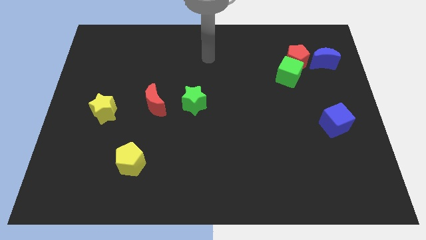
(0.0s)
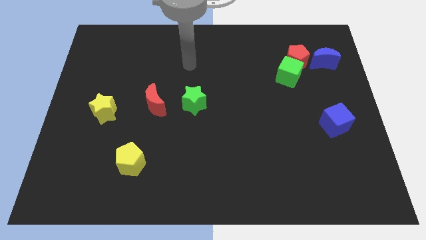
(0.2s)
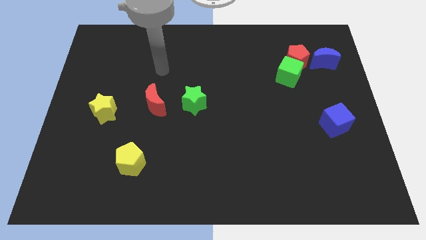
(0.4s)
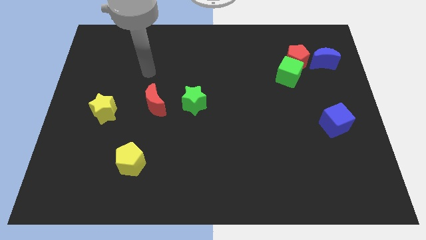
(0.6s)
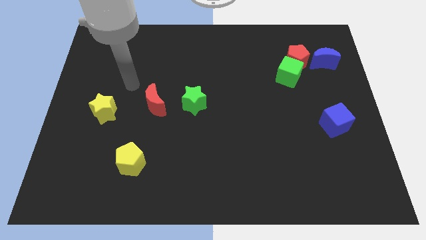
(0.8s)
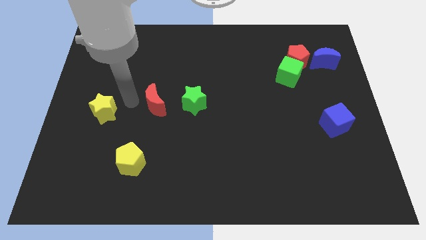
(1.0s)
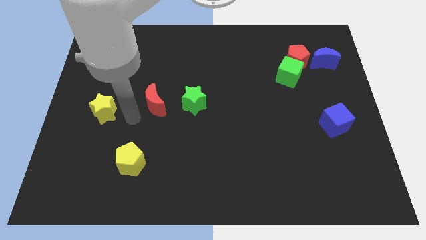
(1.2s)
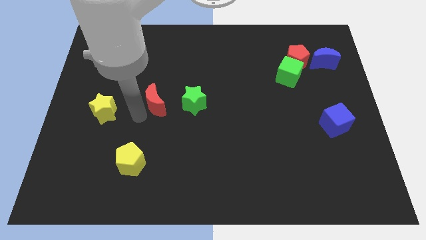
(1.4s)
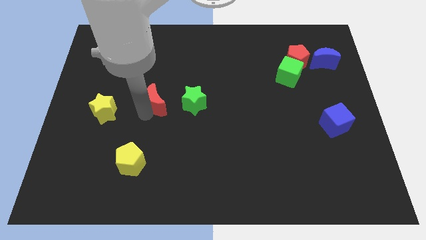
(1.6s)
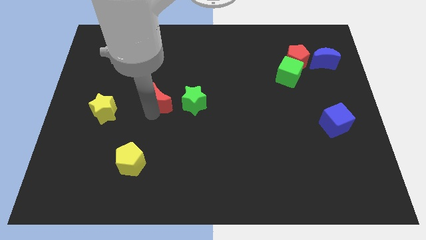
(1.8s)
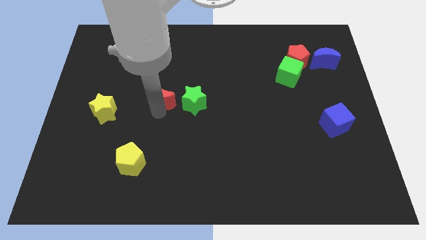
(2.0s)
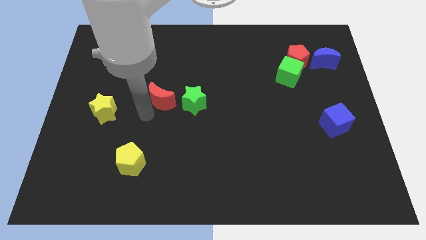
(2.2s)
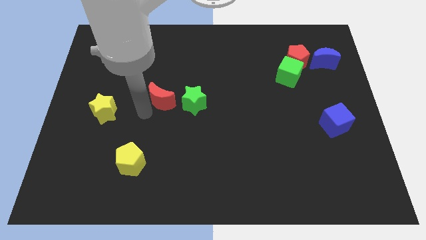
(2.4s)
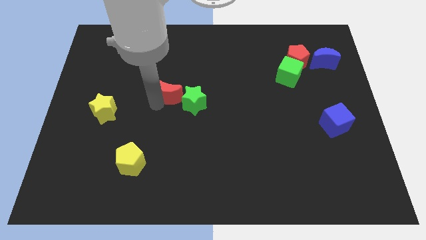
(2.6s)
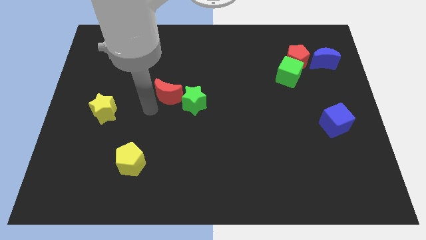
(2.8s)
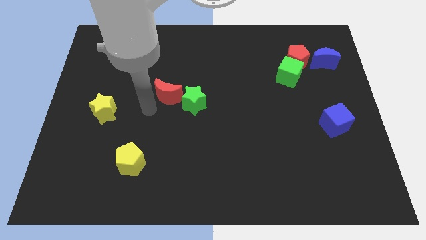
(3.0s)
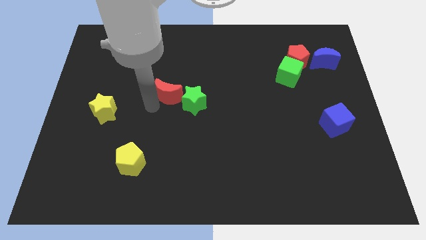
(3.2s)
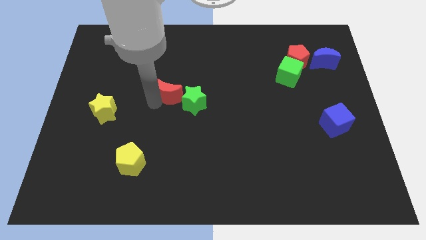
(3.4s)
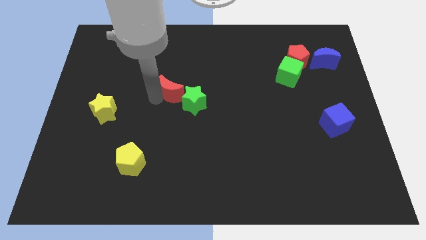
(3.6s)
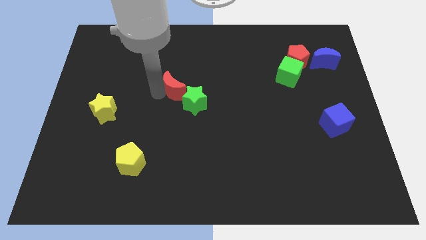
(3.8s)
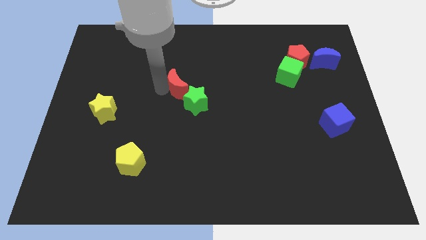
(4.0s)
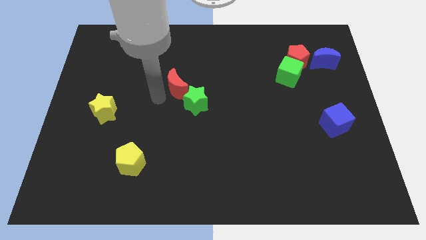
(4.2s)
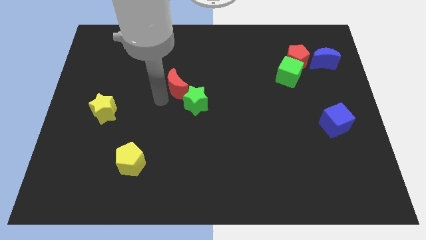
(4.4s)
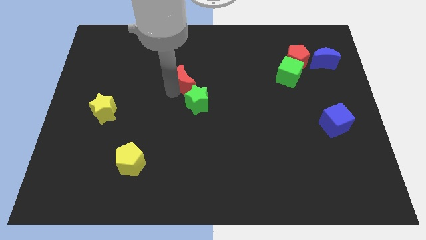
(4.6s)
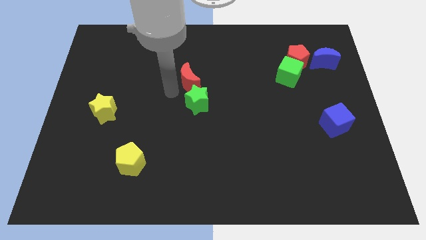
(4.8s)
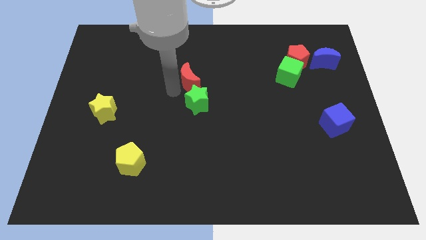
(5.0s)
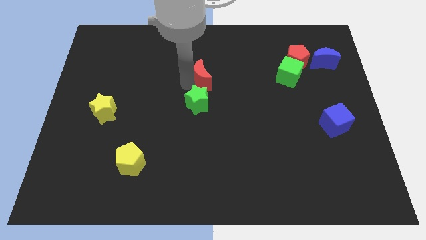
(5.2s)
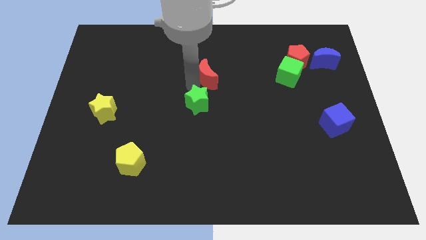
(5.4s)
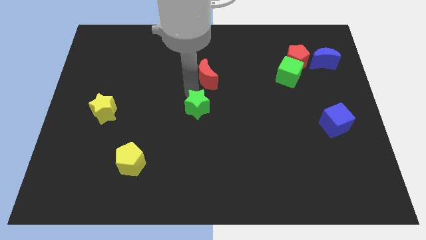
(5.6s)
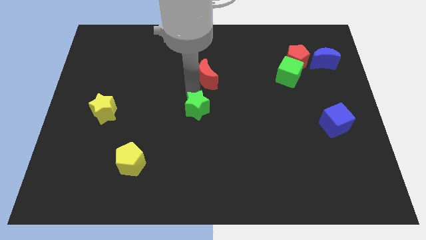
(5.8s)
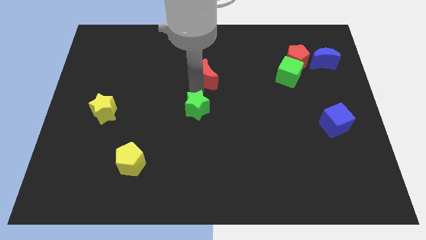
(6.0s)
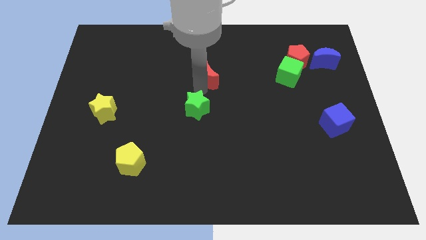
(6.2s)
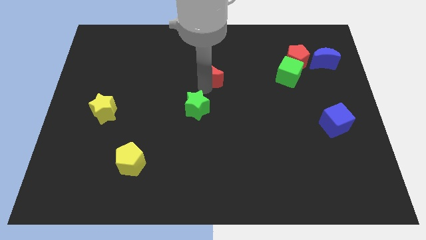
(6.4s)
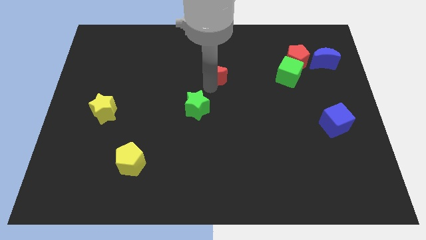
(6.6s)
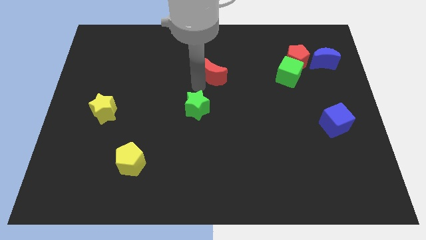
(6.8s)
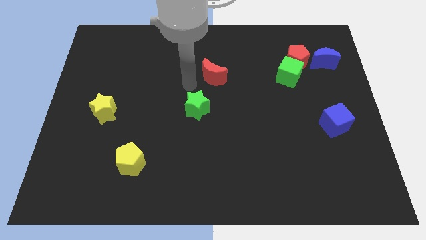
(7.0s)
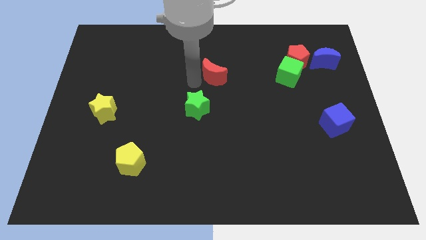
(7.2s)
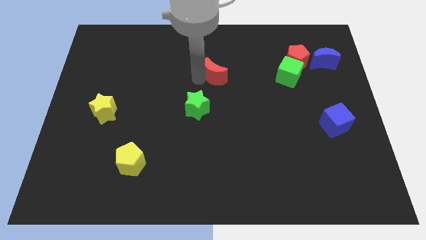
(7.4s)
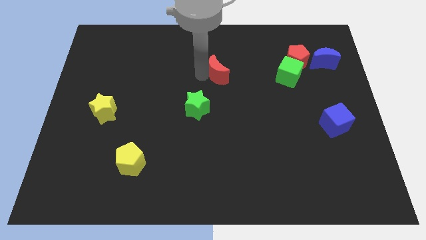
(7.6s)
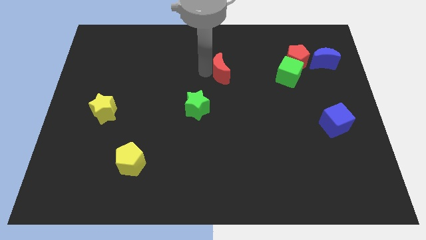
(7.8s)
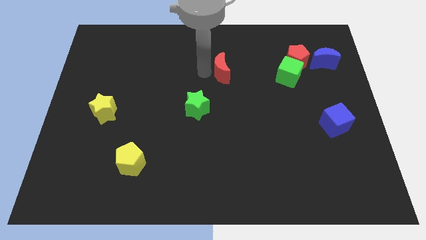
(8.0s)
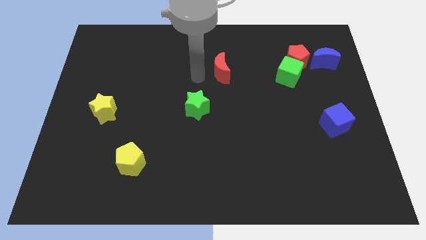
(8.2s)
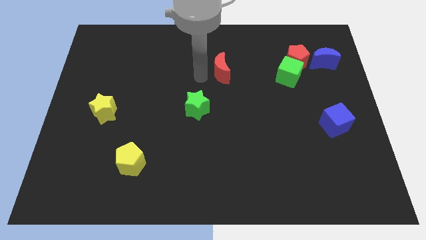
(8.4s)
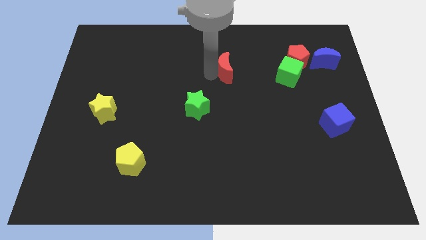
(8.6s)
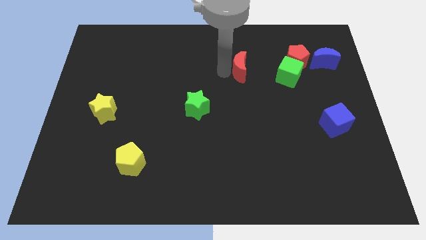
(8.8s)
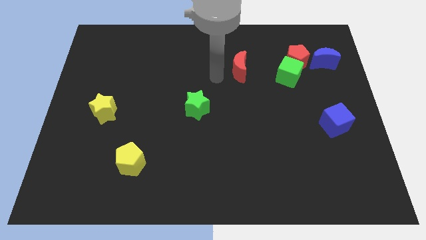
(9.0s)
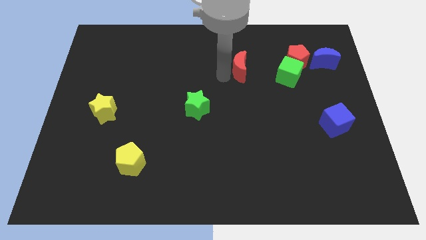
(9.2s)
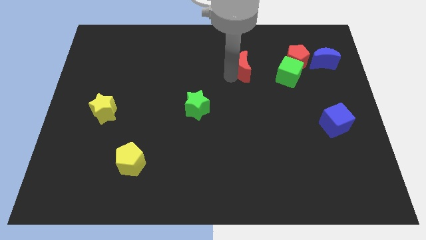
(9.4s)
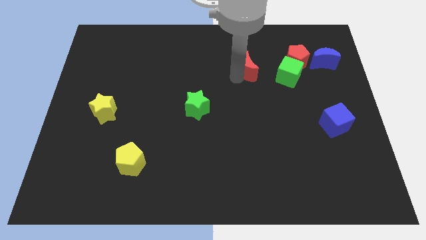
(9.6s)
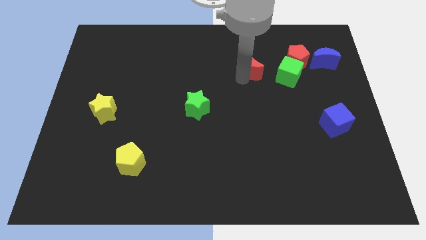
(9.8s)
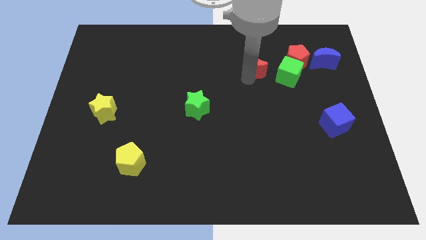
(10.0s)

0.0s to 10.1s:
push the red moon diagonally up and to the left of the green cube

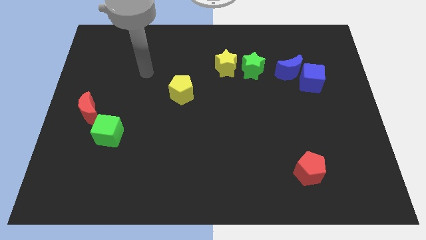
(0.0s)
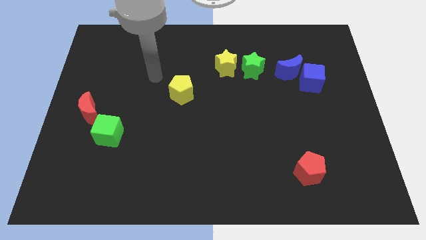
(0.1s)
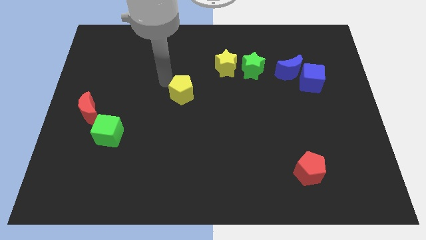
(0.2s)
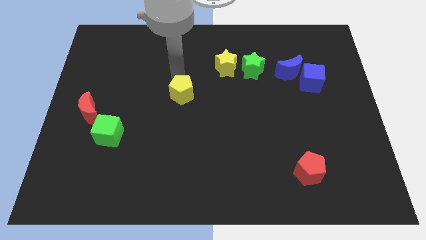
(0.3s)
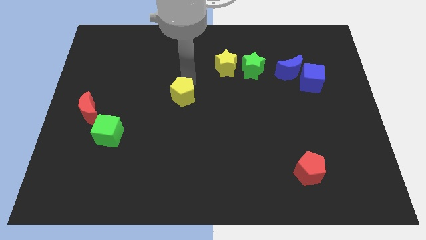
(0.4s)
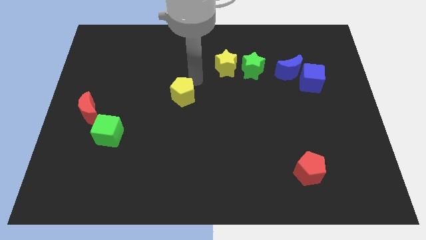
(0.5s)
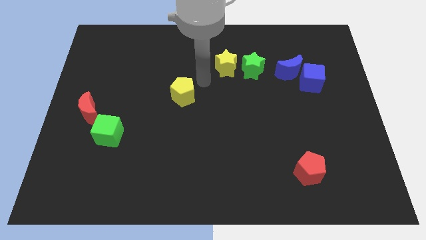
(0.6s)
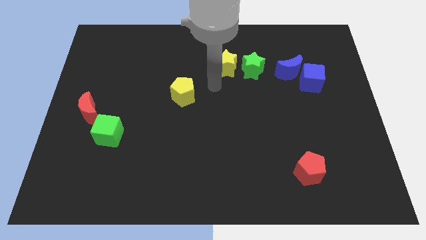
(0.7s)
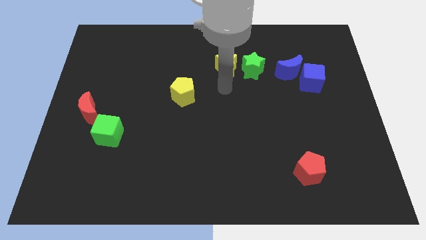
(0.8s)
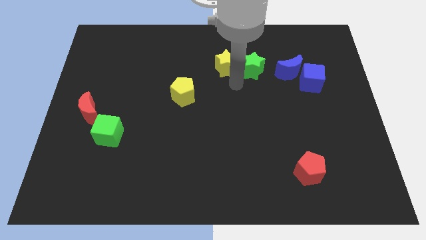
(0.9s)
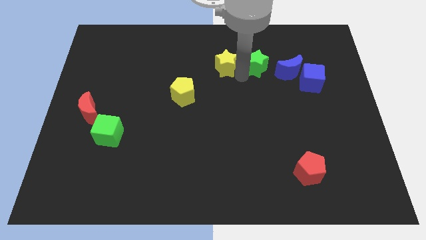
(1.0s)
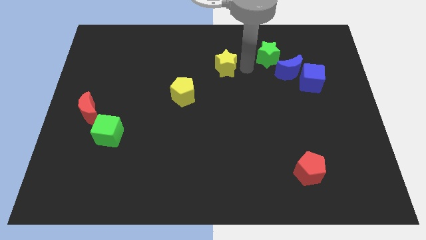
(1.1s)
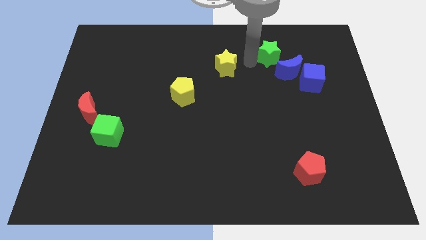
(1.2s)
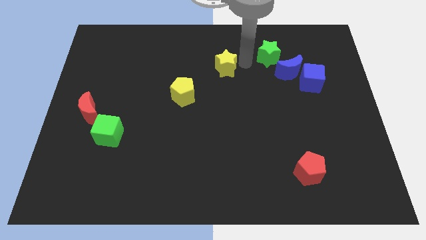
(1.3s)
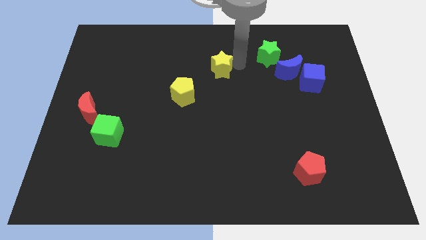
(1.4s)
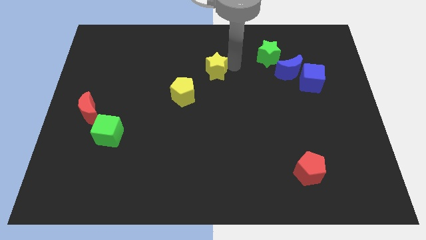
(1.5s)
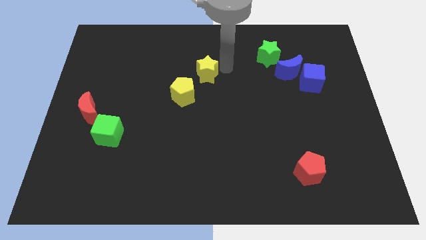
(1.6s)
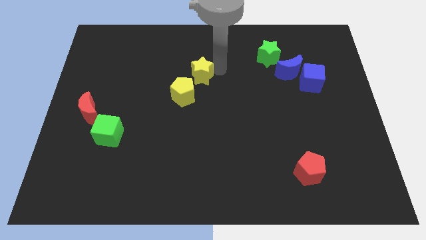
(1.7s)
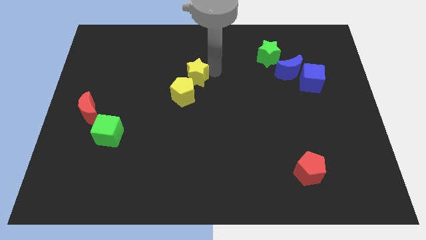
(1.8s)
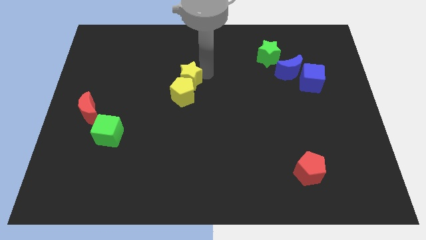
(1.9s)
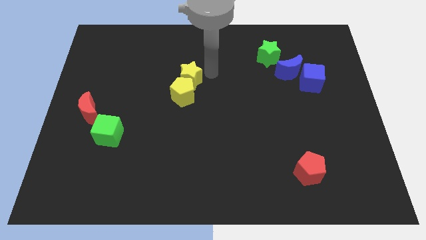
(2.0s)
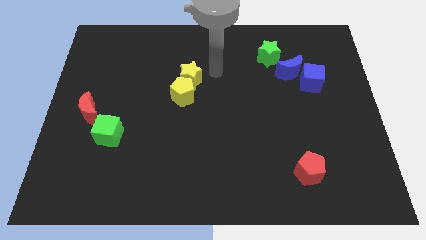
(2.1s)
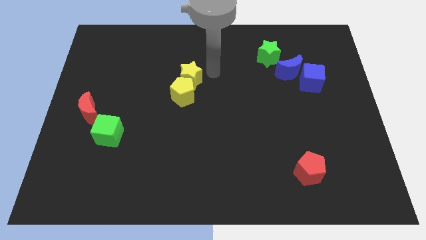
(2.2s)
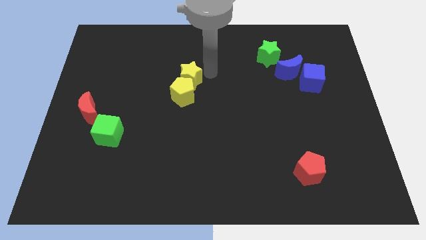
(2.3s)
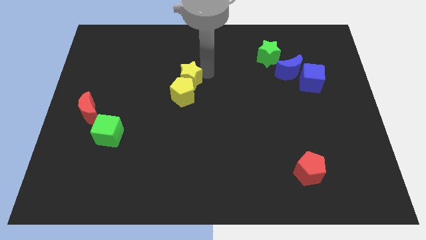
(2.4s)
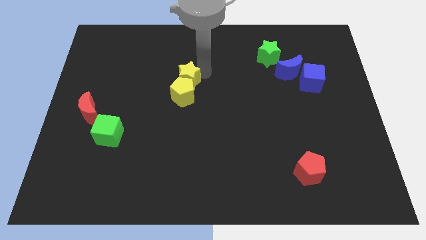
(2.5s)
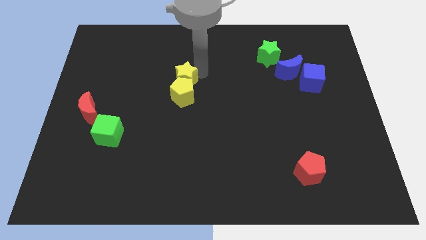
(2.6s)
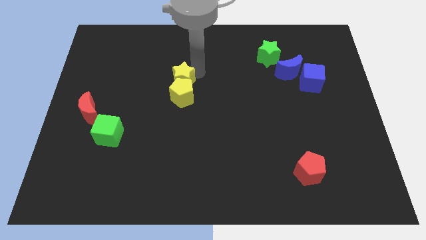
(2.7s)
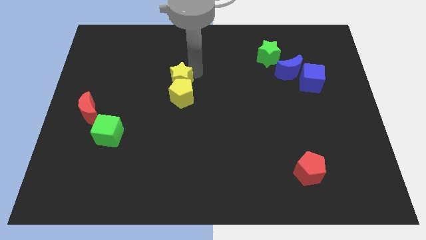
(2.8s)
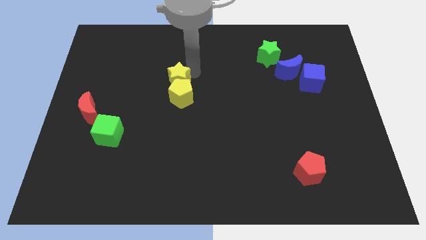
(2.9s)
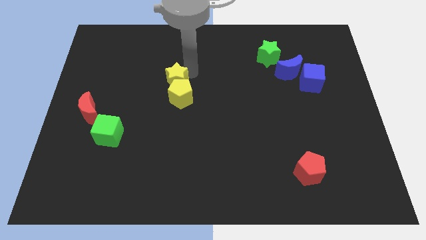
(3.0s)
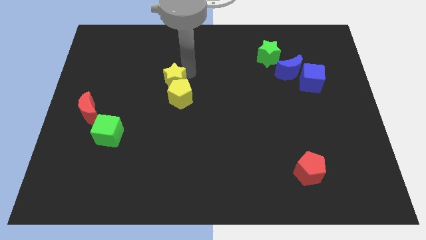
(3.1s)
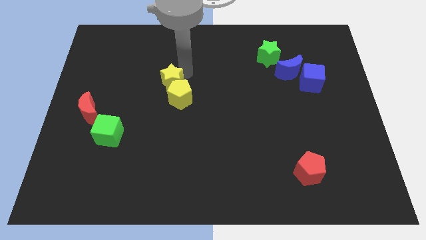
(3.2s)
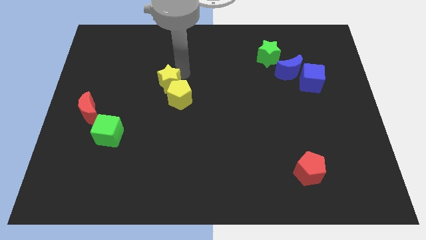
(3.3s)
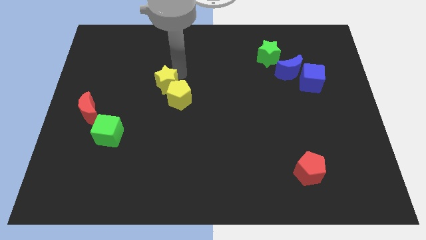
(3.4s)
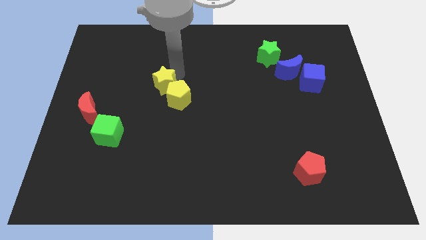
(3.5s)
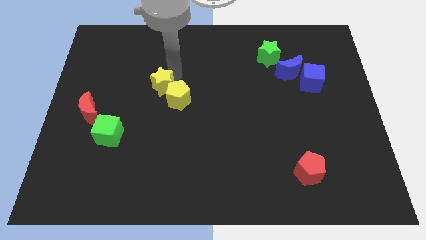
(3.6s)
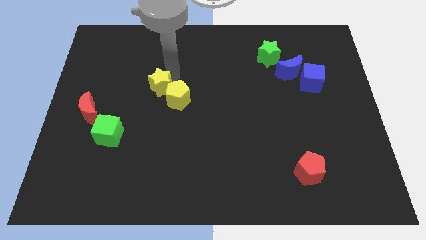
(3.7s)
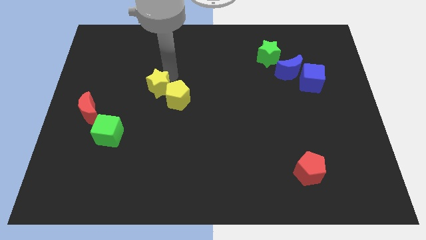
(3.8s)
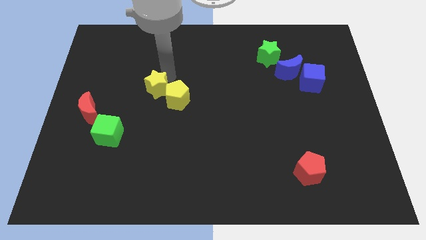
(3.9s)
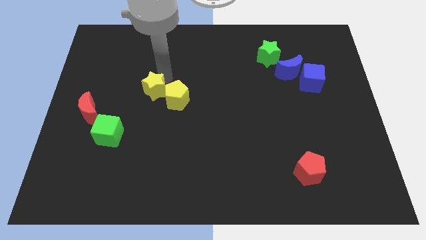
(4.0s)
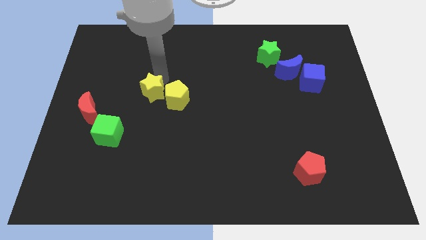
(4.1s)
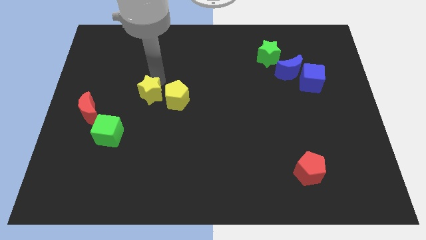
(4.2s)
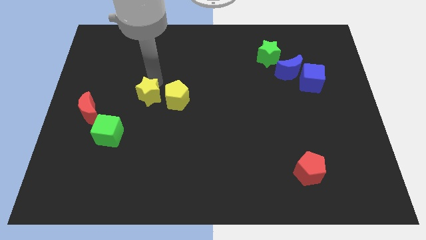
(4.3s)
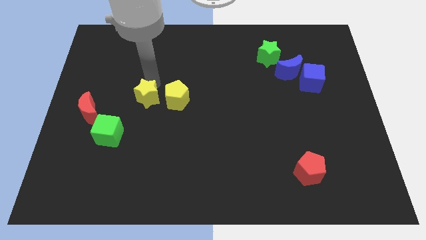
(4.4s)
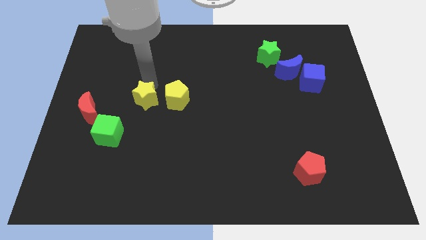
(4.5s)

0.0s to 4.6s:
move the yellow star to the top right of the green cube
